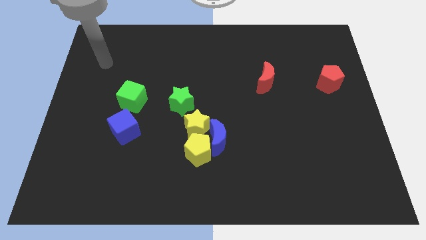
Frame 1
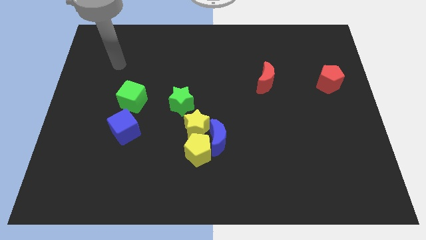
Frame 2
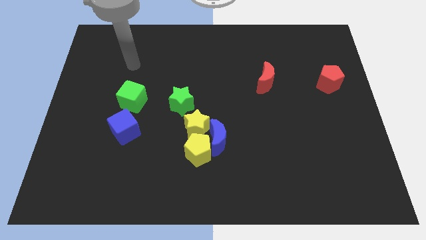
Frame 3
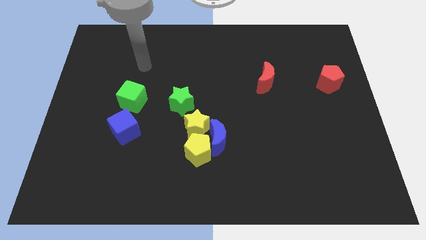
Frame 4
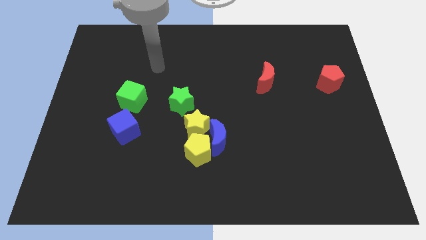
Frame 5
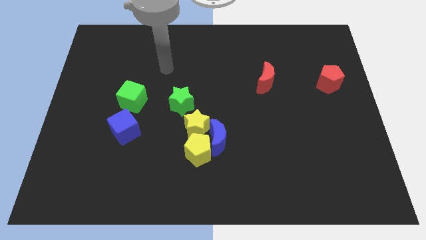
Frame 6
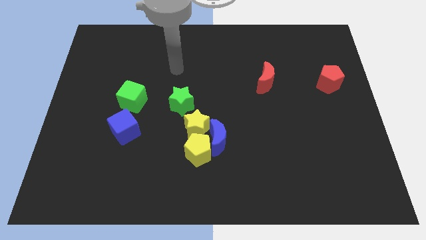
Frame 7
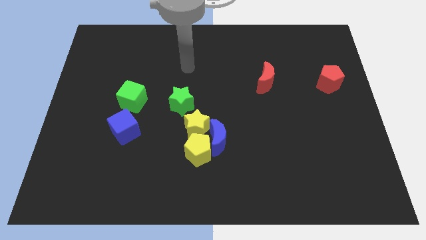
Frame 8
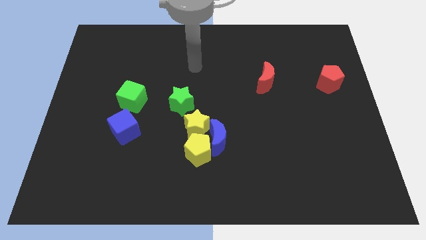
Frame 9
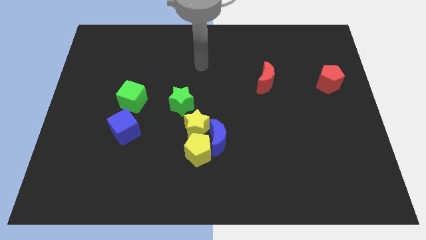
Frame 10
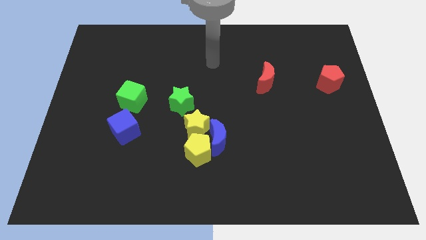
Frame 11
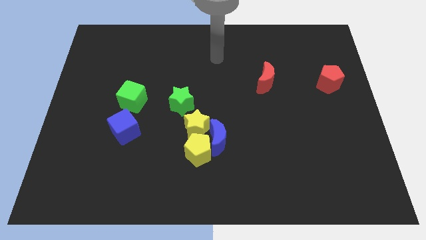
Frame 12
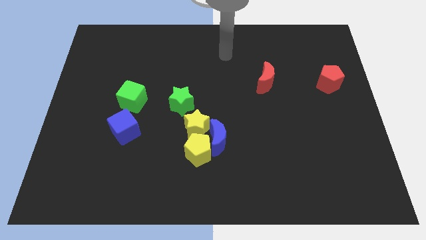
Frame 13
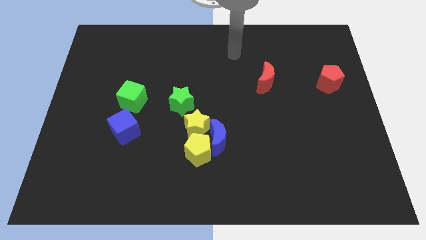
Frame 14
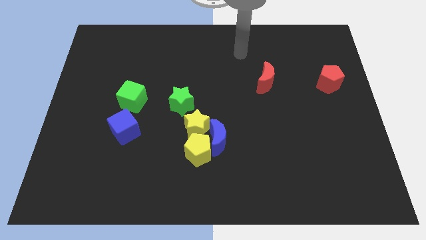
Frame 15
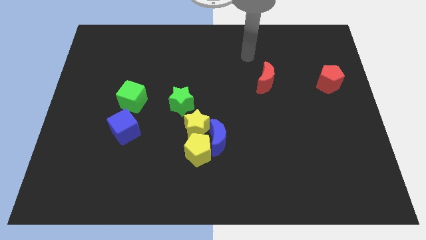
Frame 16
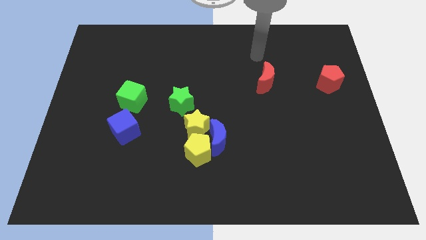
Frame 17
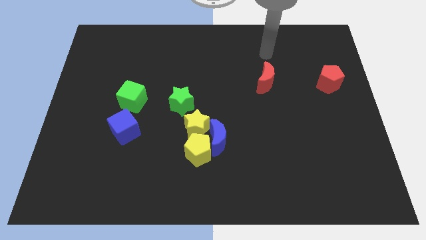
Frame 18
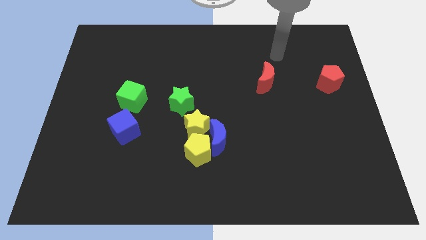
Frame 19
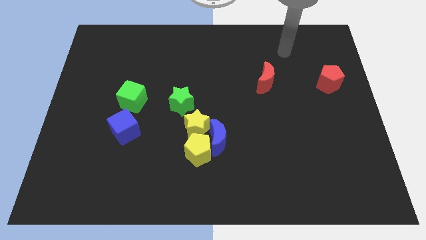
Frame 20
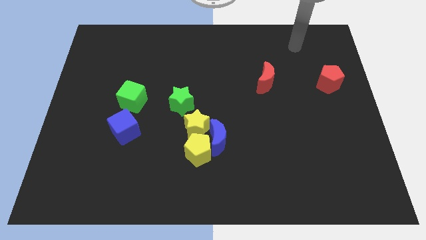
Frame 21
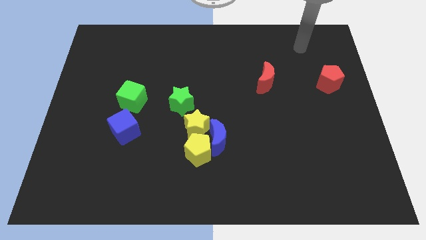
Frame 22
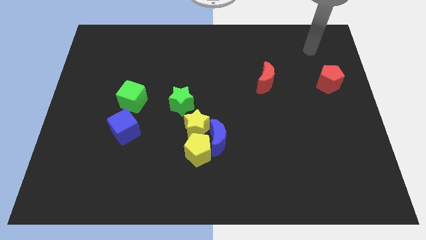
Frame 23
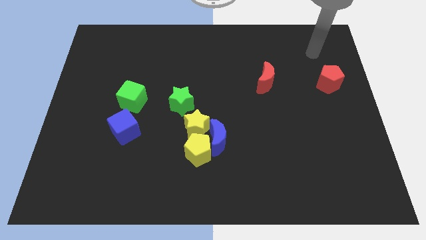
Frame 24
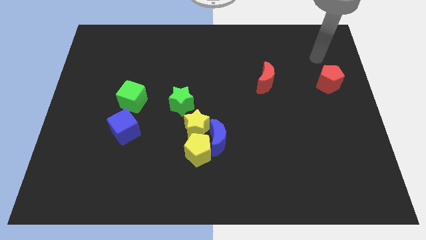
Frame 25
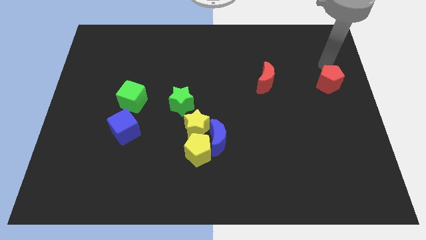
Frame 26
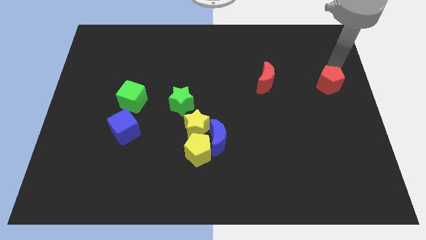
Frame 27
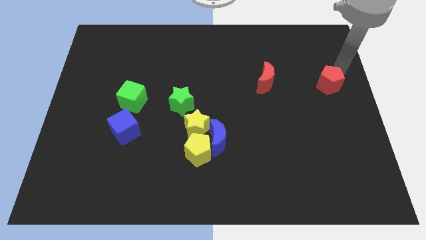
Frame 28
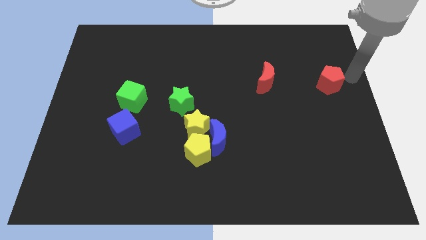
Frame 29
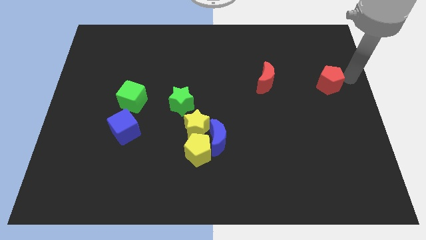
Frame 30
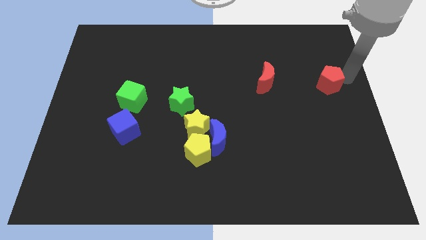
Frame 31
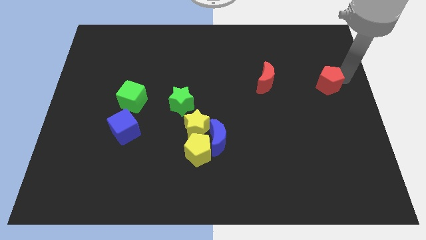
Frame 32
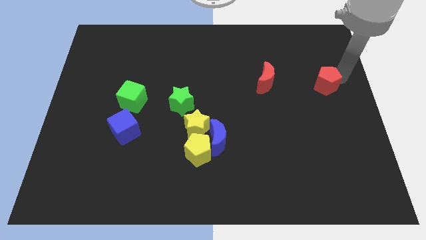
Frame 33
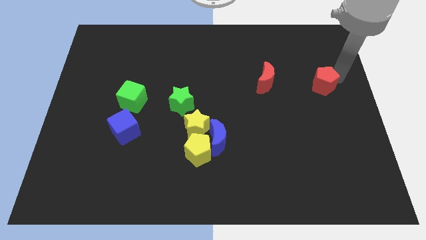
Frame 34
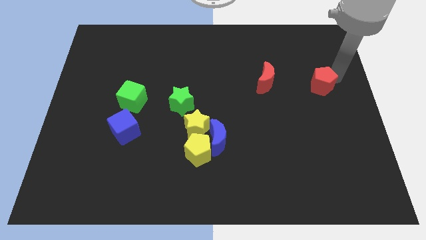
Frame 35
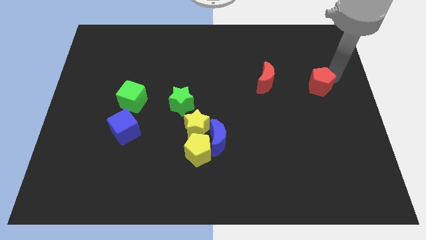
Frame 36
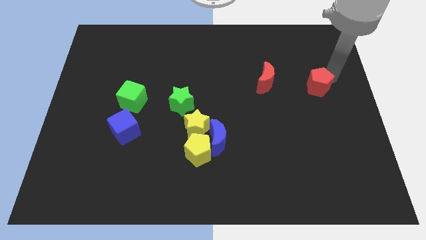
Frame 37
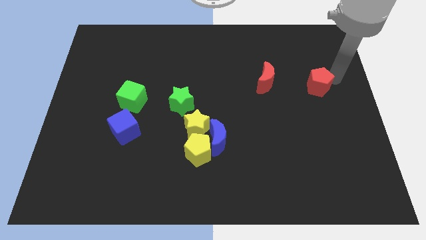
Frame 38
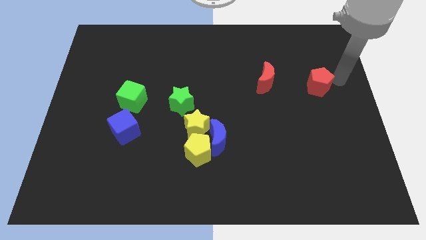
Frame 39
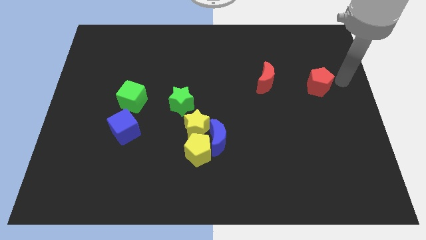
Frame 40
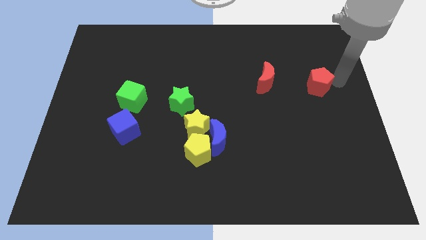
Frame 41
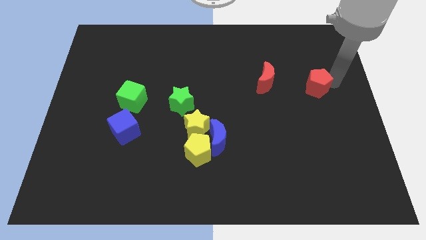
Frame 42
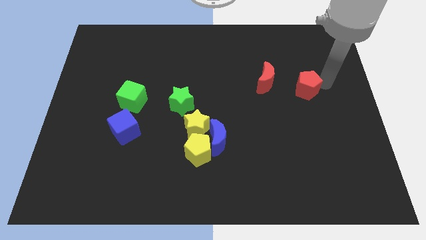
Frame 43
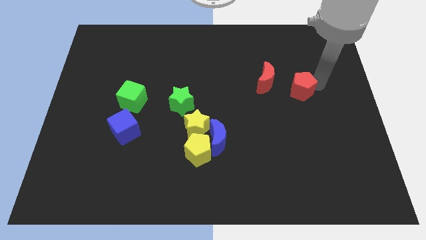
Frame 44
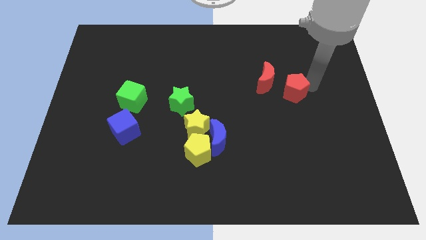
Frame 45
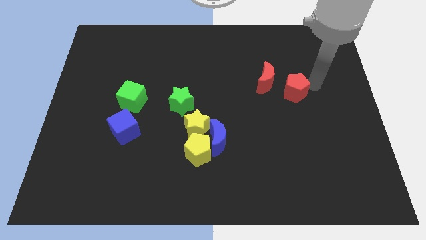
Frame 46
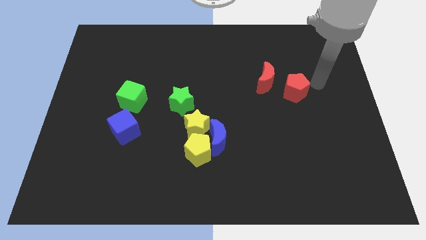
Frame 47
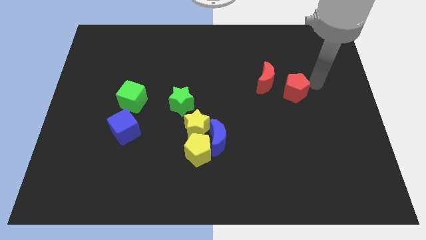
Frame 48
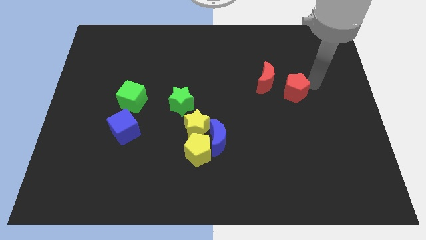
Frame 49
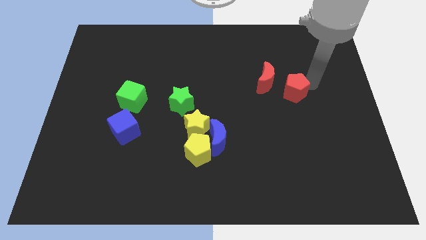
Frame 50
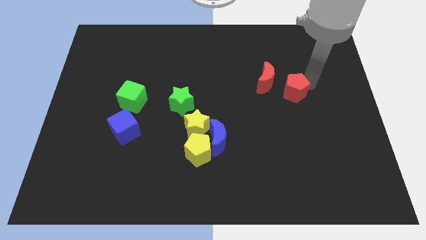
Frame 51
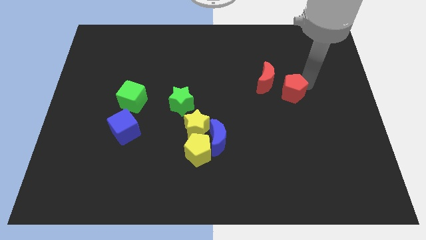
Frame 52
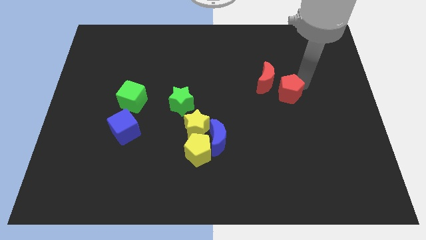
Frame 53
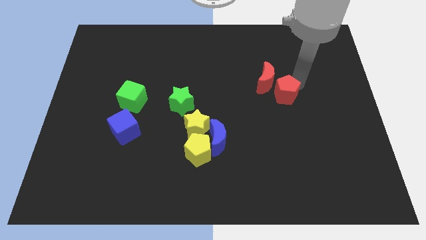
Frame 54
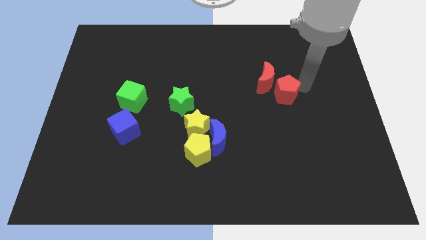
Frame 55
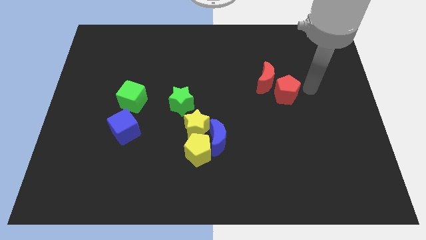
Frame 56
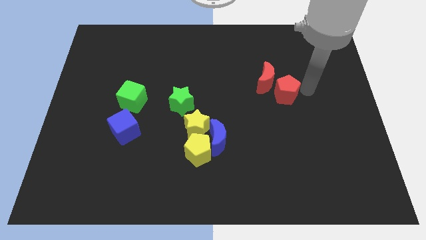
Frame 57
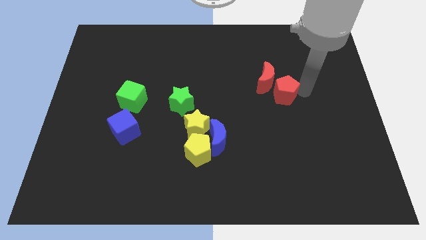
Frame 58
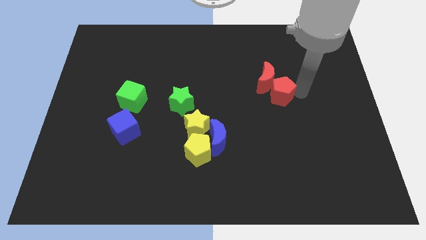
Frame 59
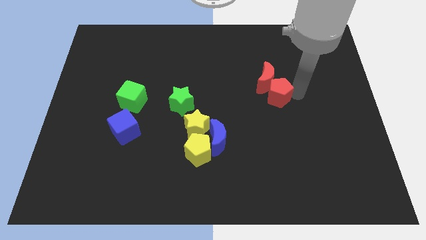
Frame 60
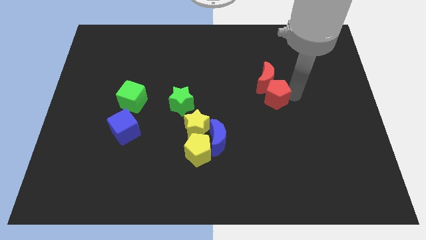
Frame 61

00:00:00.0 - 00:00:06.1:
put the red pentagon diagonally down and to the left of the red moon
